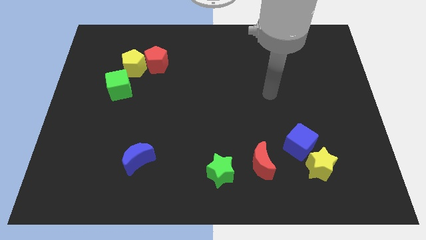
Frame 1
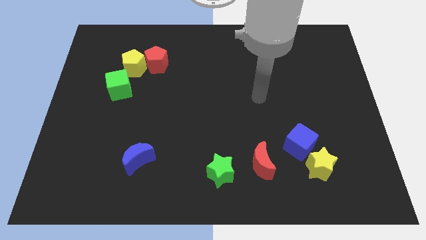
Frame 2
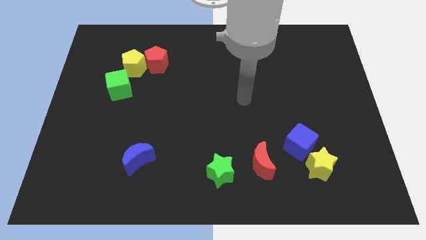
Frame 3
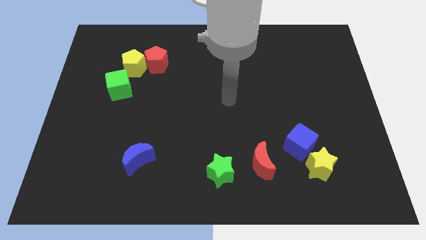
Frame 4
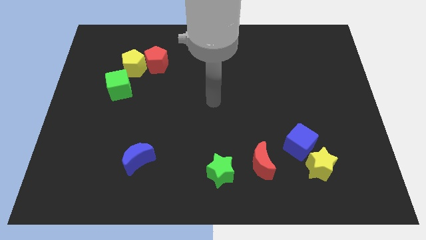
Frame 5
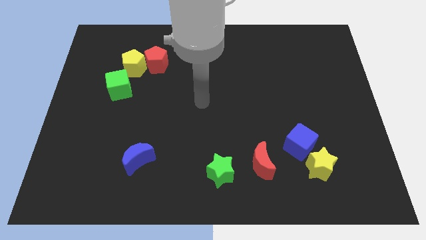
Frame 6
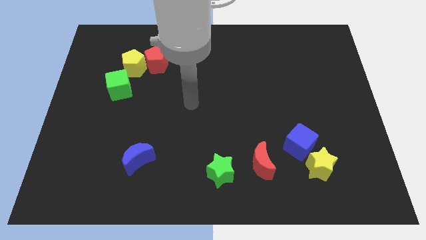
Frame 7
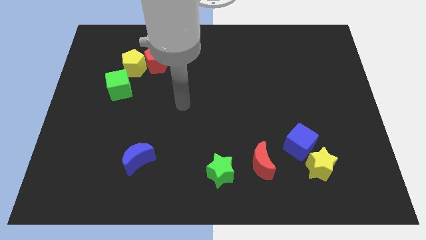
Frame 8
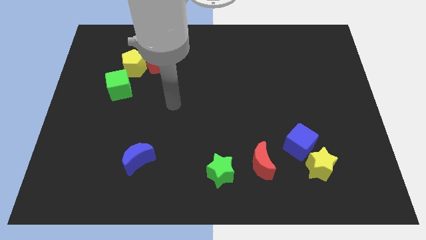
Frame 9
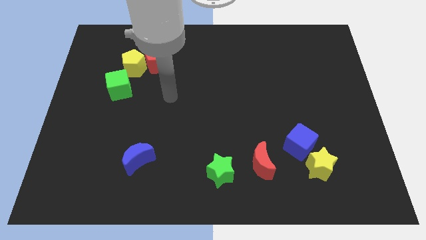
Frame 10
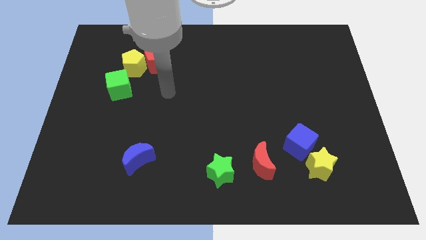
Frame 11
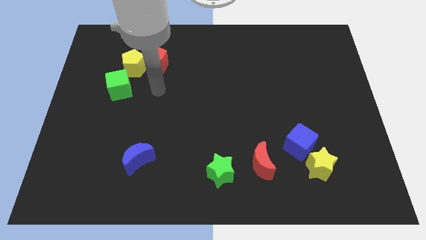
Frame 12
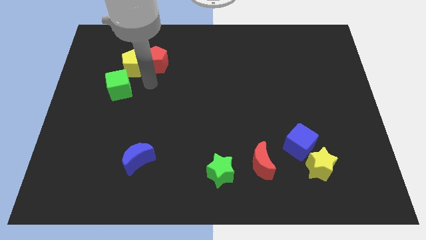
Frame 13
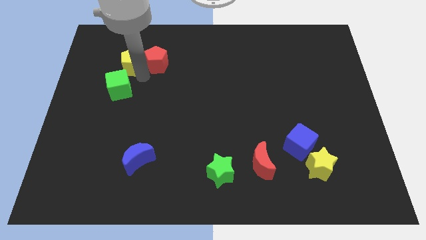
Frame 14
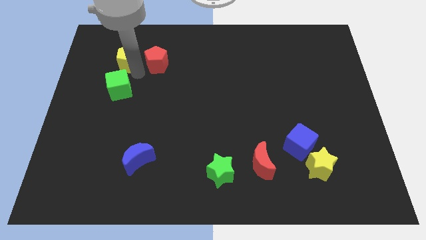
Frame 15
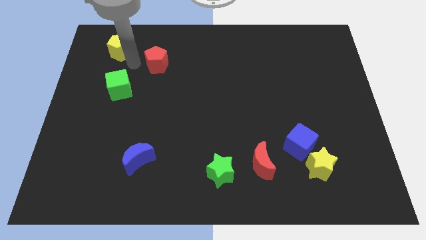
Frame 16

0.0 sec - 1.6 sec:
pull the red pentagon apart from the yellow pentagon

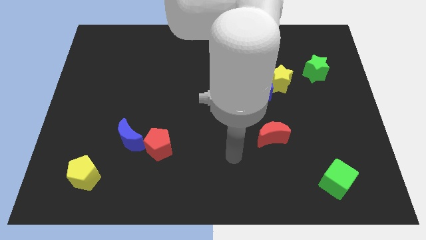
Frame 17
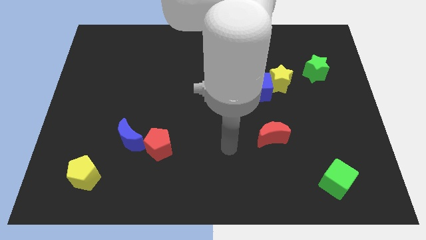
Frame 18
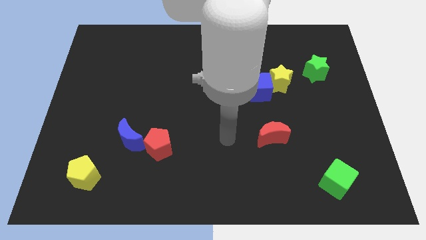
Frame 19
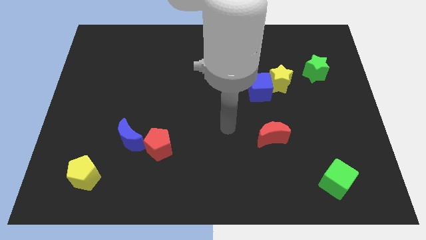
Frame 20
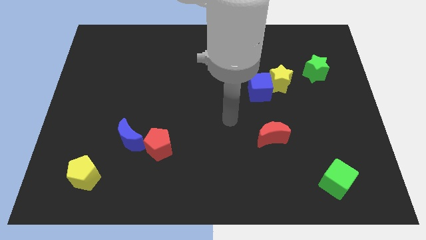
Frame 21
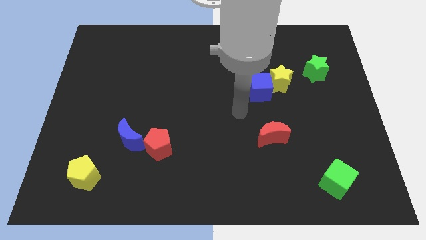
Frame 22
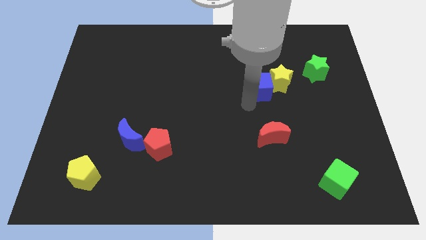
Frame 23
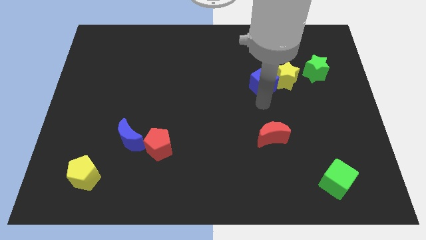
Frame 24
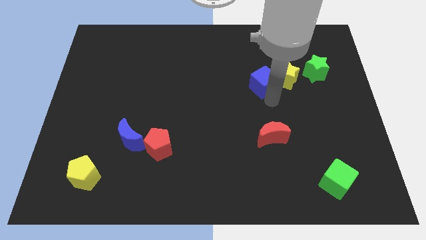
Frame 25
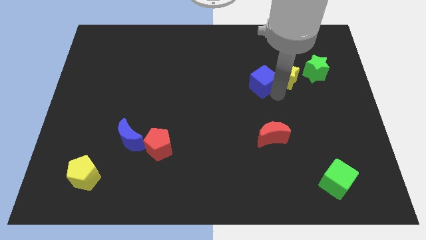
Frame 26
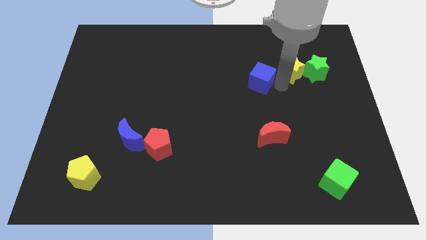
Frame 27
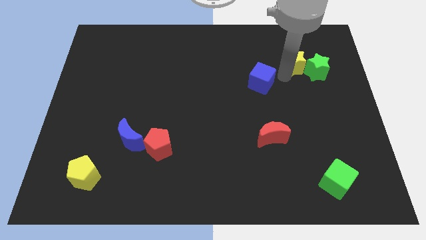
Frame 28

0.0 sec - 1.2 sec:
move the blue cube away from the yellow star

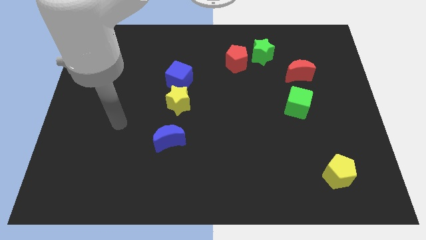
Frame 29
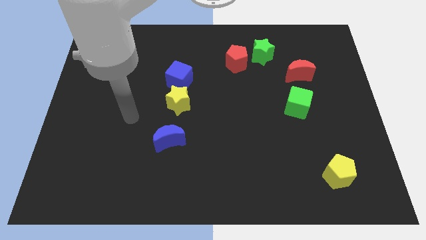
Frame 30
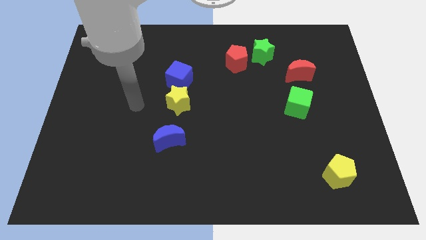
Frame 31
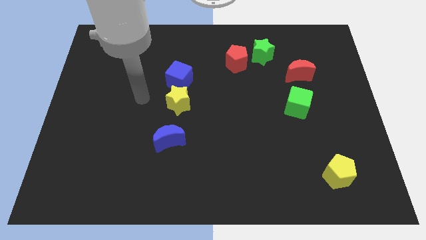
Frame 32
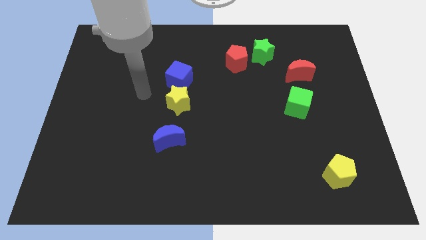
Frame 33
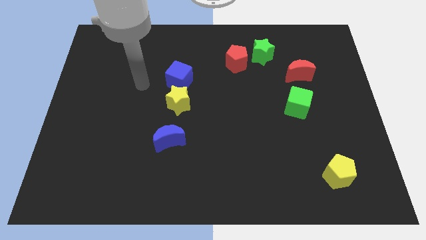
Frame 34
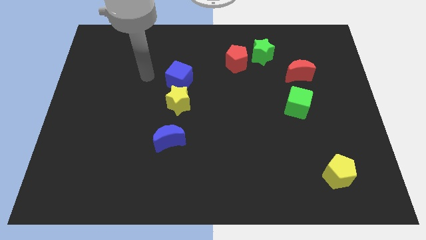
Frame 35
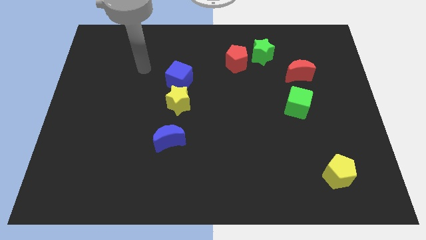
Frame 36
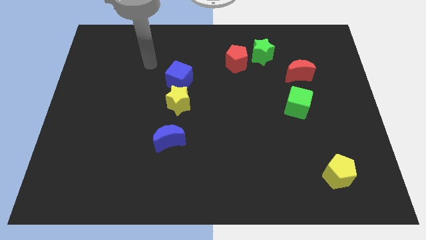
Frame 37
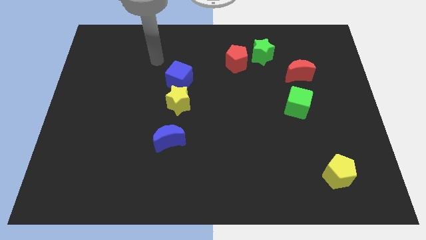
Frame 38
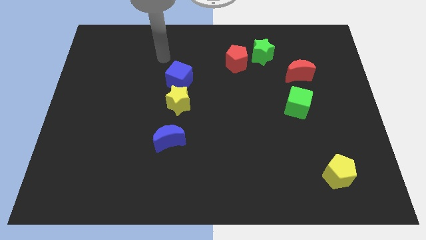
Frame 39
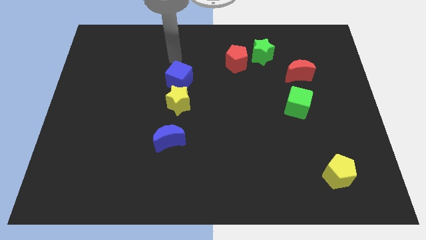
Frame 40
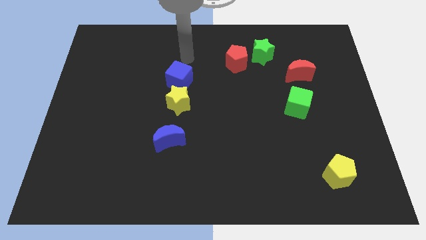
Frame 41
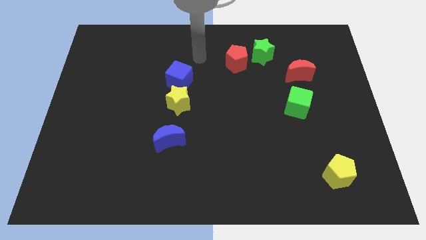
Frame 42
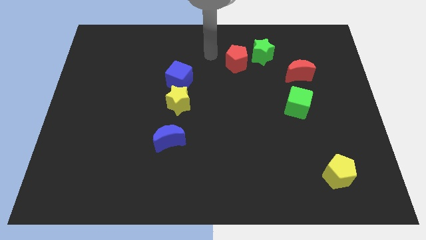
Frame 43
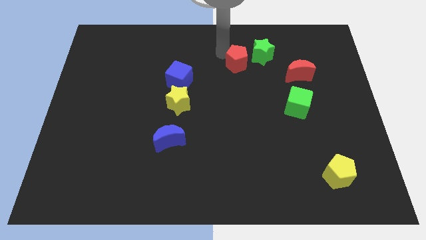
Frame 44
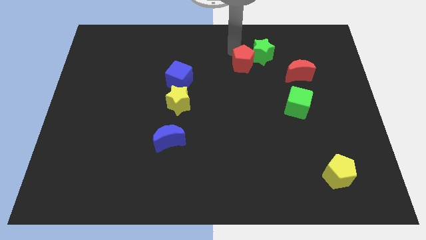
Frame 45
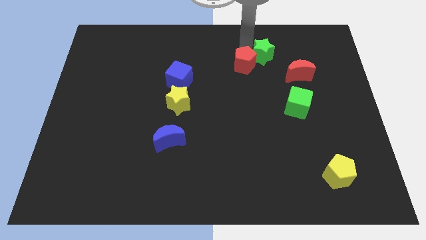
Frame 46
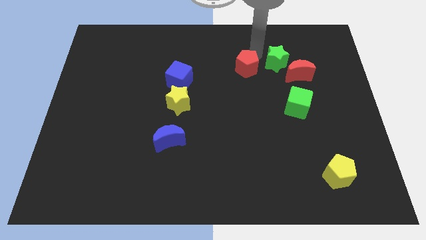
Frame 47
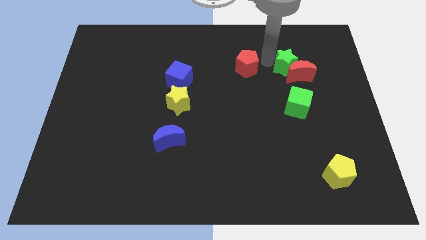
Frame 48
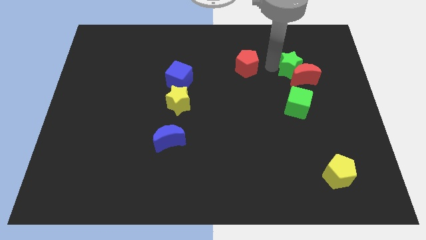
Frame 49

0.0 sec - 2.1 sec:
separate the red pentagon from the green star

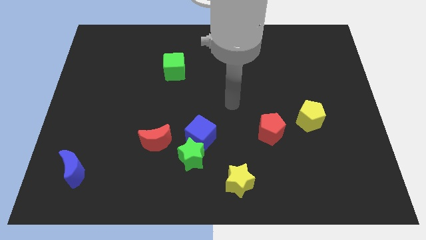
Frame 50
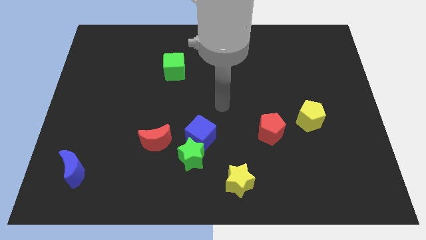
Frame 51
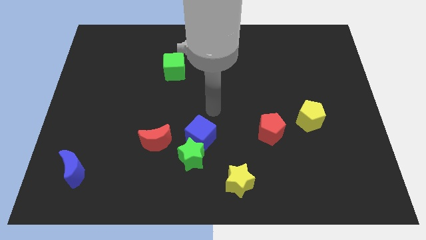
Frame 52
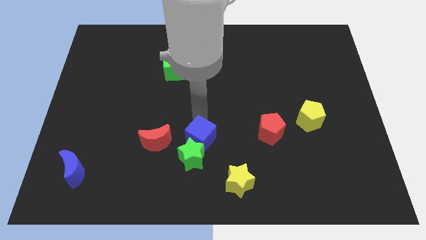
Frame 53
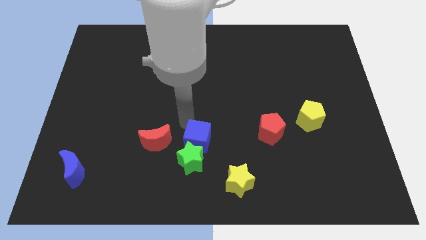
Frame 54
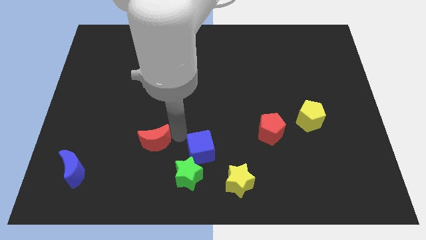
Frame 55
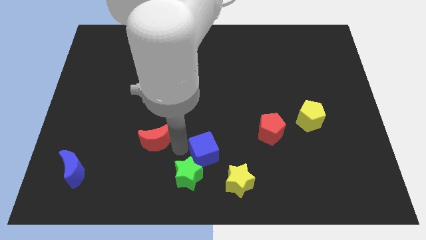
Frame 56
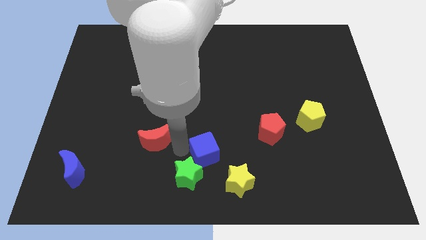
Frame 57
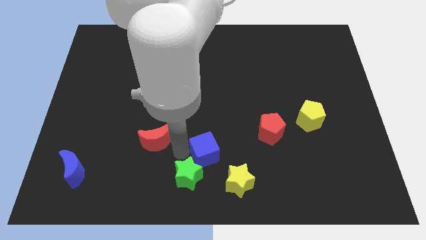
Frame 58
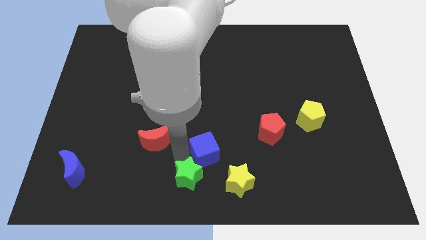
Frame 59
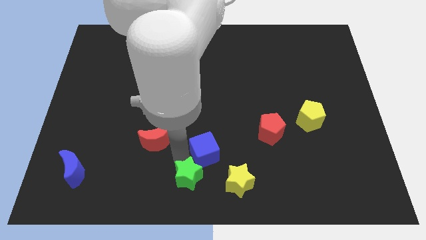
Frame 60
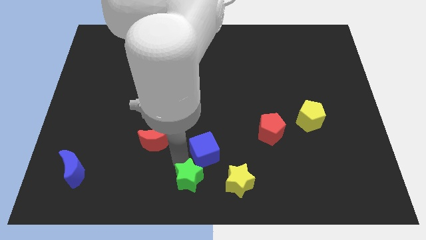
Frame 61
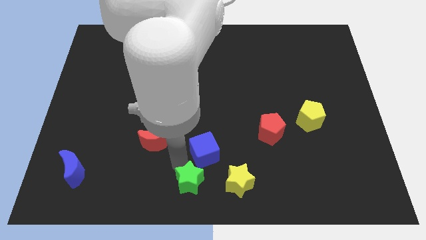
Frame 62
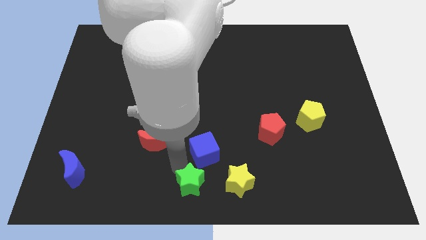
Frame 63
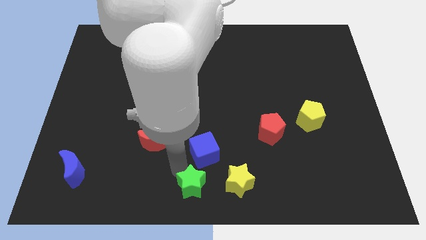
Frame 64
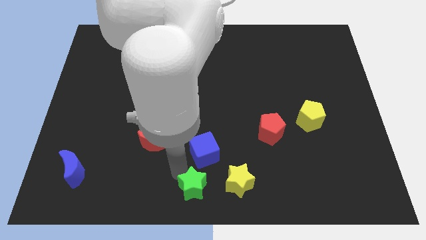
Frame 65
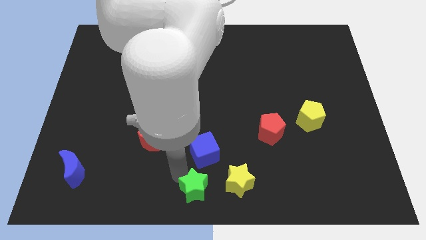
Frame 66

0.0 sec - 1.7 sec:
pull the green star apart from the blue cube and red moon

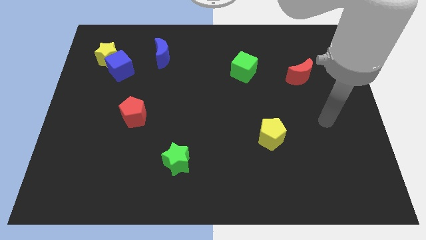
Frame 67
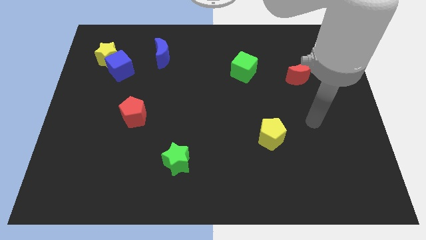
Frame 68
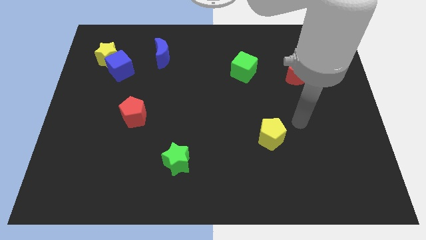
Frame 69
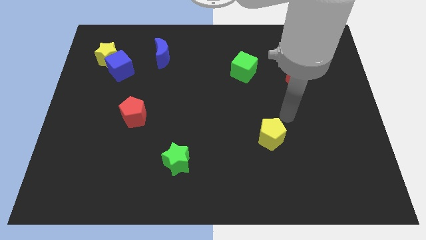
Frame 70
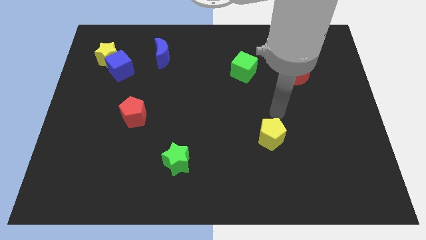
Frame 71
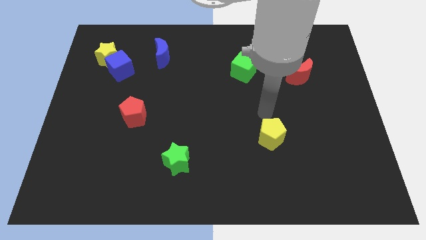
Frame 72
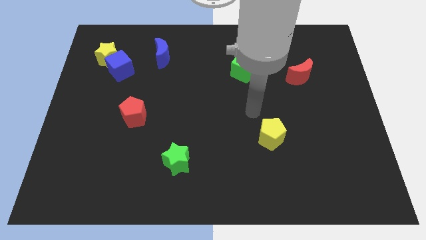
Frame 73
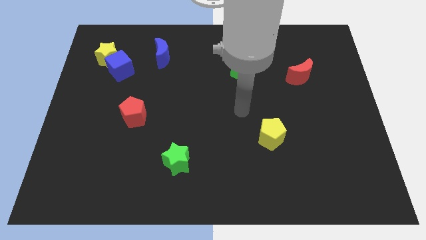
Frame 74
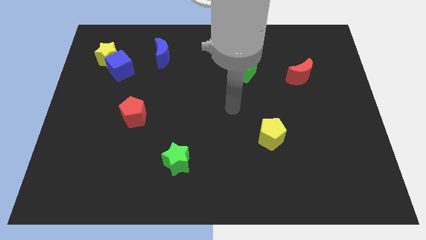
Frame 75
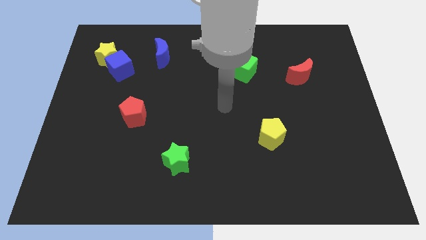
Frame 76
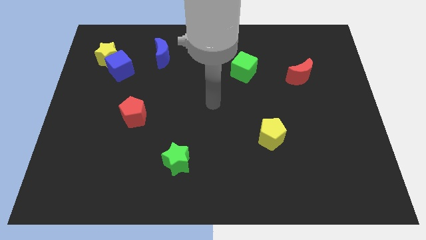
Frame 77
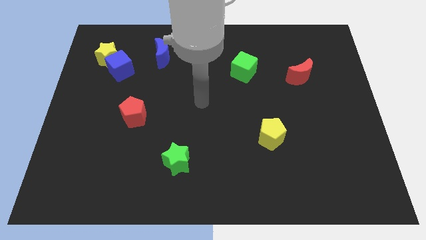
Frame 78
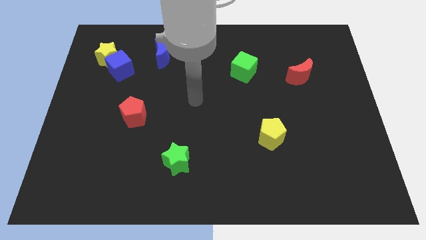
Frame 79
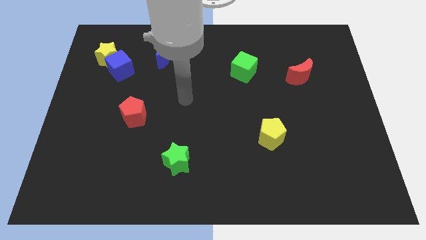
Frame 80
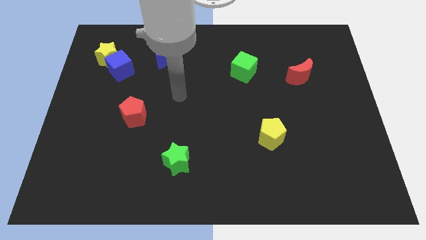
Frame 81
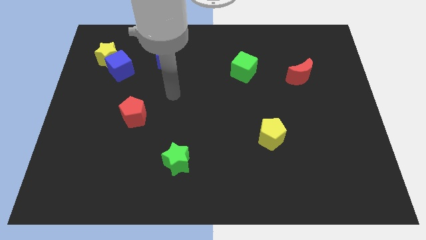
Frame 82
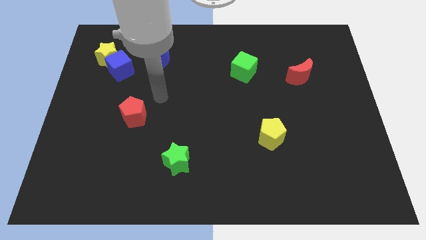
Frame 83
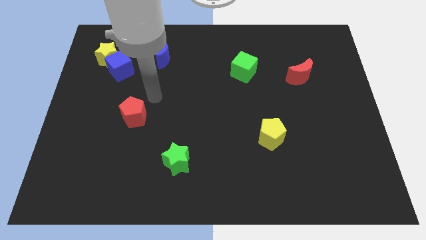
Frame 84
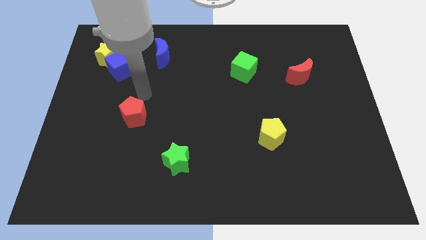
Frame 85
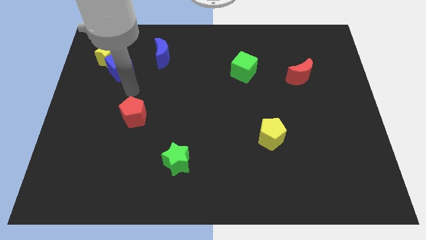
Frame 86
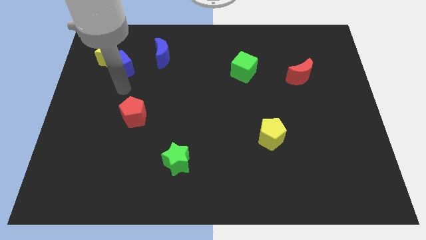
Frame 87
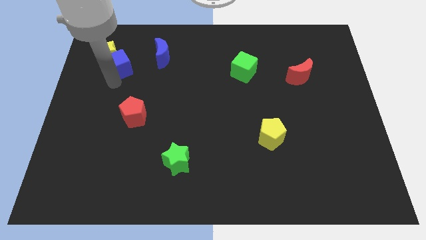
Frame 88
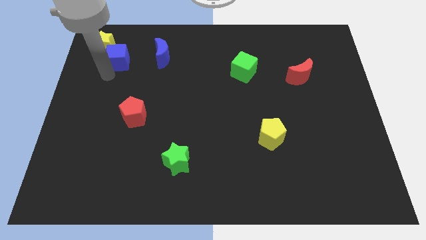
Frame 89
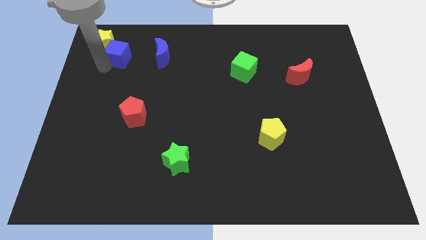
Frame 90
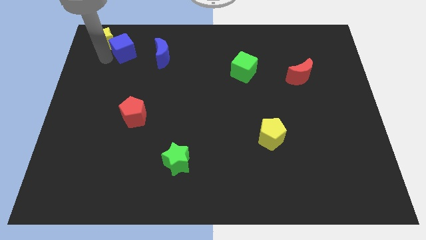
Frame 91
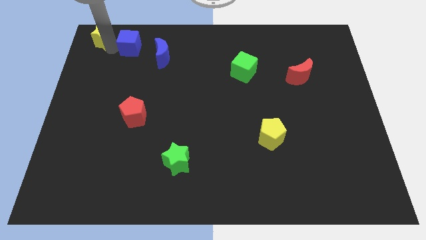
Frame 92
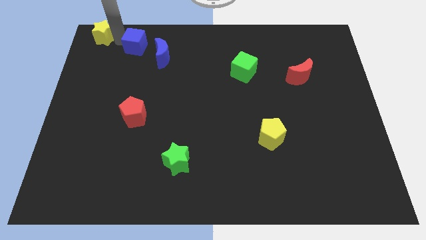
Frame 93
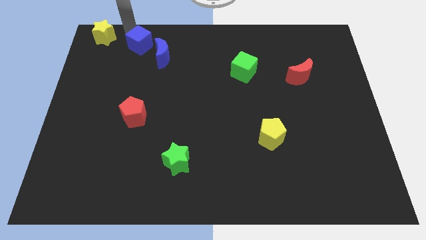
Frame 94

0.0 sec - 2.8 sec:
separate the blue cube from the yellow star

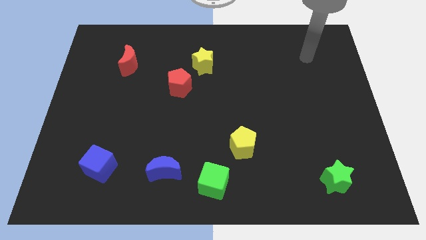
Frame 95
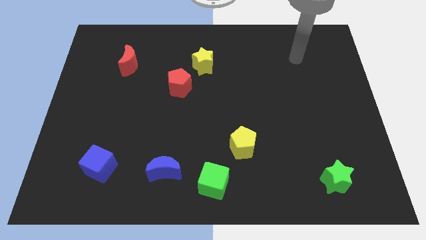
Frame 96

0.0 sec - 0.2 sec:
separate the red pentagon from the yellow star
